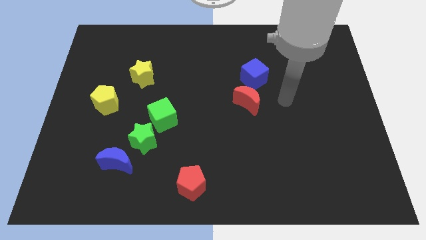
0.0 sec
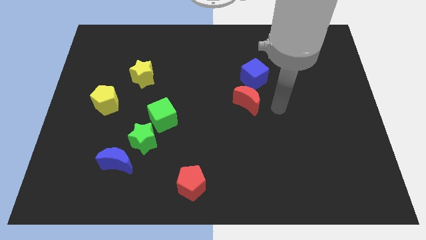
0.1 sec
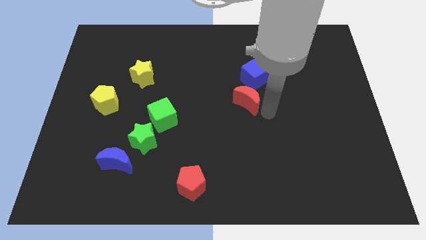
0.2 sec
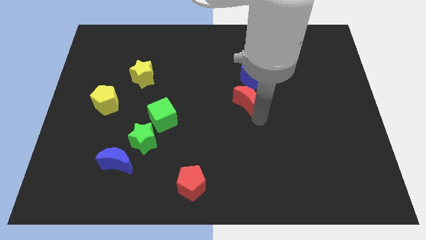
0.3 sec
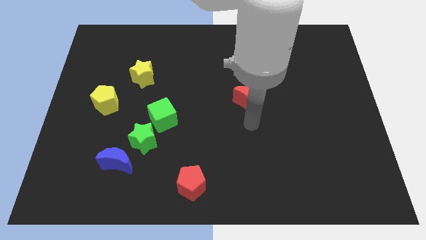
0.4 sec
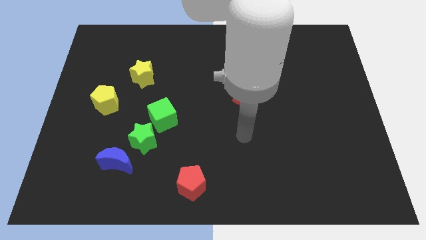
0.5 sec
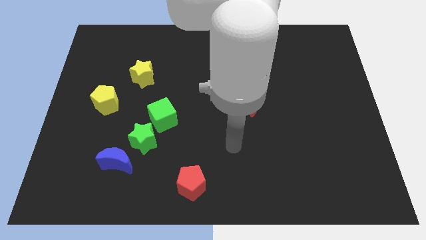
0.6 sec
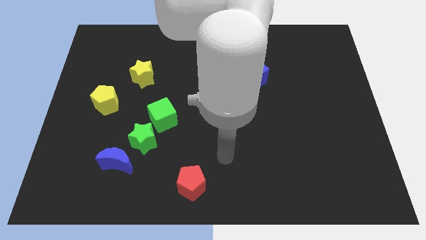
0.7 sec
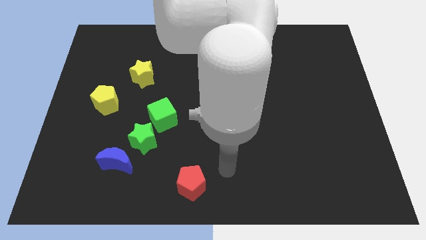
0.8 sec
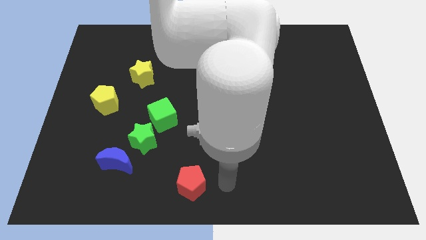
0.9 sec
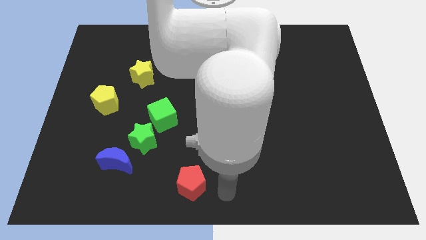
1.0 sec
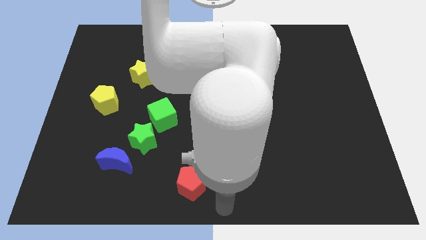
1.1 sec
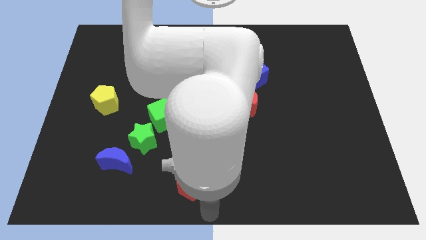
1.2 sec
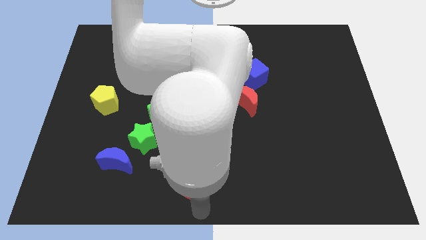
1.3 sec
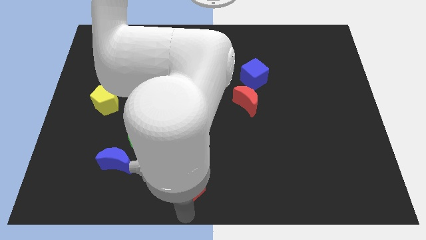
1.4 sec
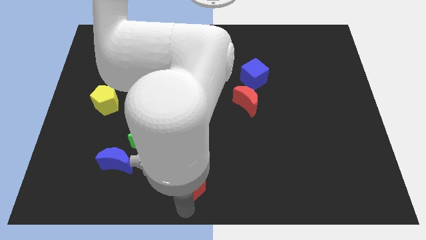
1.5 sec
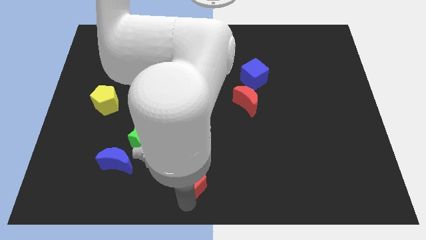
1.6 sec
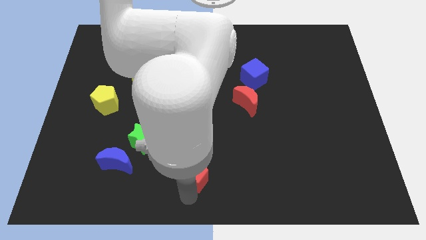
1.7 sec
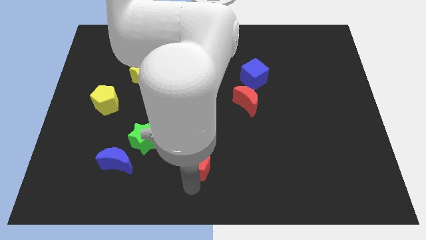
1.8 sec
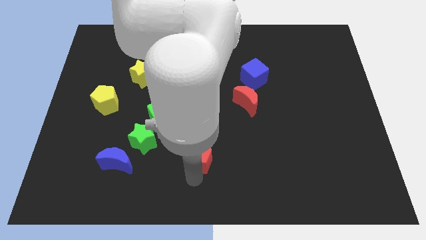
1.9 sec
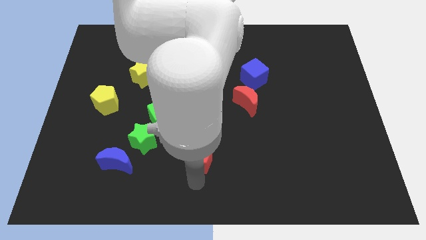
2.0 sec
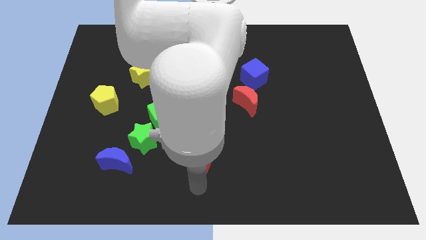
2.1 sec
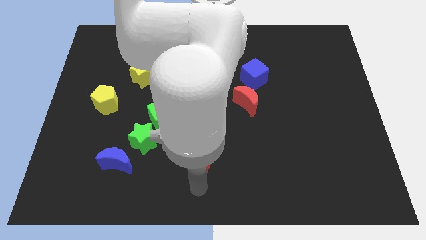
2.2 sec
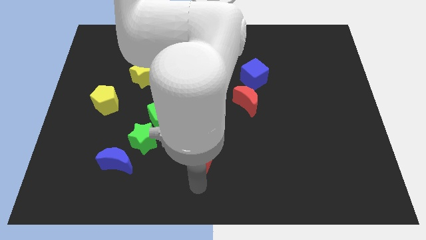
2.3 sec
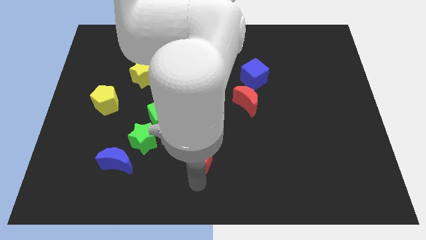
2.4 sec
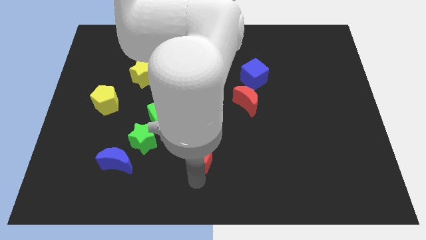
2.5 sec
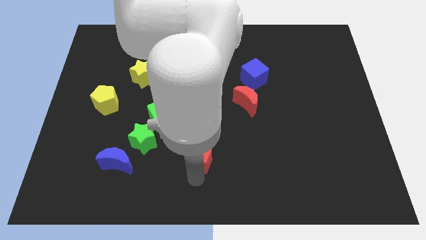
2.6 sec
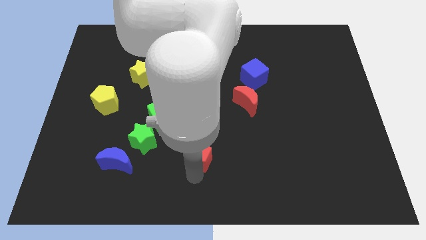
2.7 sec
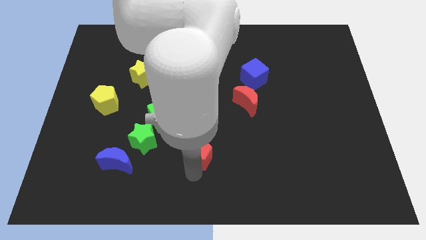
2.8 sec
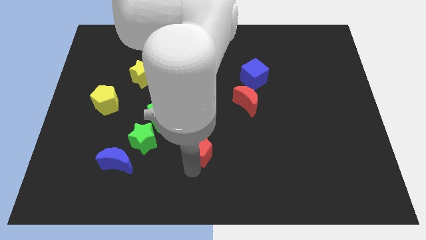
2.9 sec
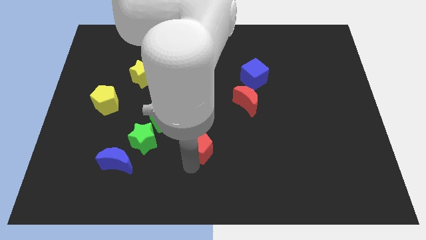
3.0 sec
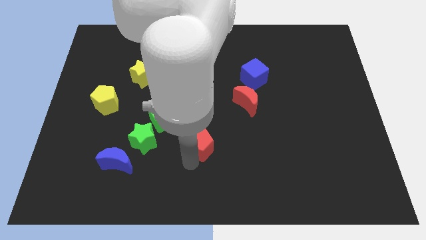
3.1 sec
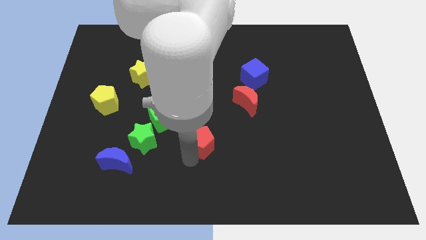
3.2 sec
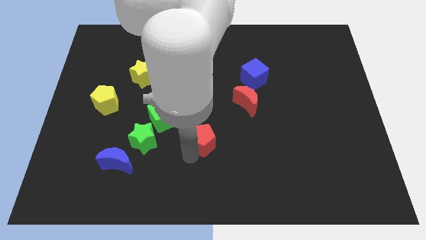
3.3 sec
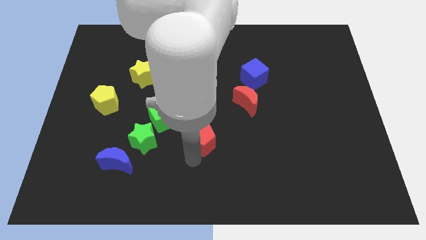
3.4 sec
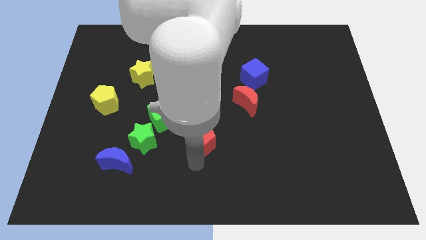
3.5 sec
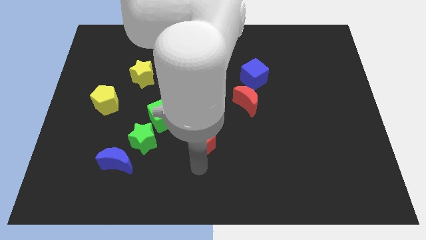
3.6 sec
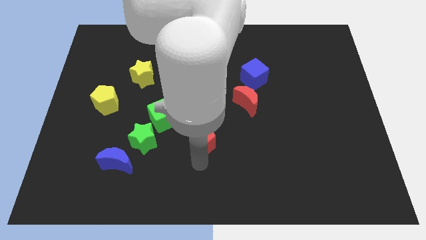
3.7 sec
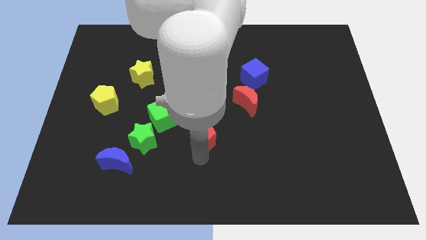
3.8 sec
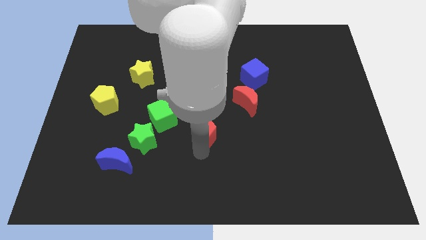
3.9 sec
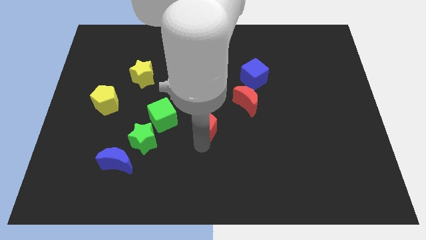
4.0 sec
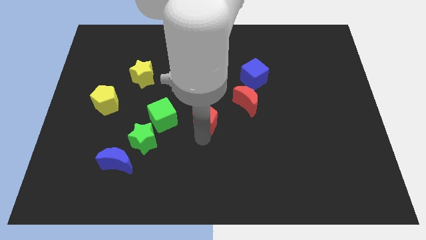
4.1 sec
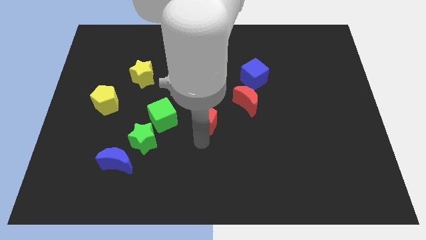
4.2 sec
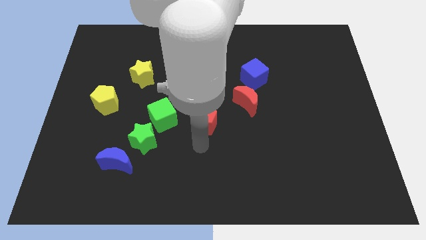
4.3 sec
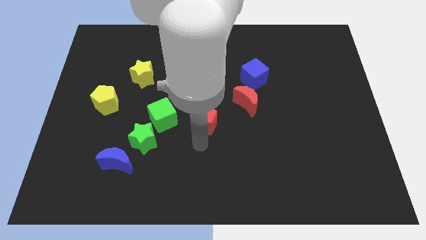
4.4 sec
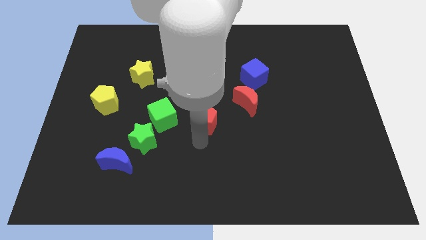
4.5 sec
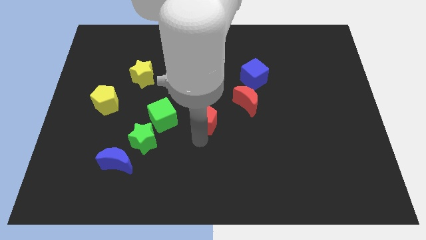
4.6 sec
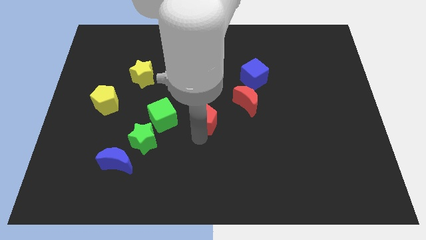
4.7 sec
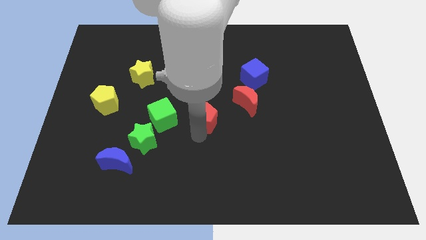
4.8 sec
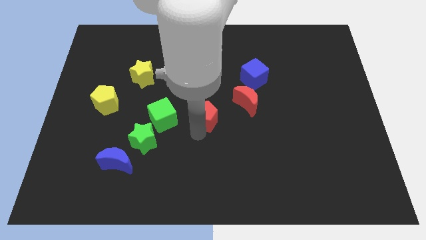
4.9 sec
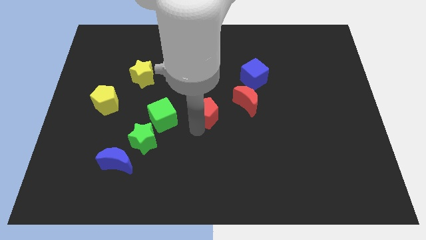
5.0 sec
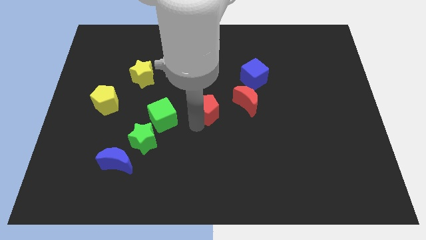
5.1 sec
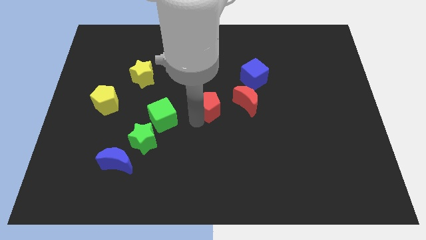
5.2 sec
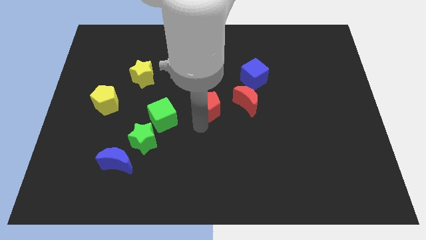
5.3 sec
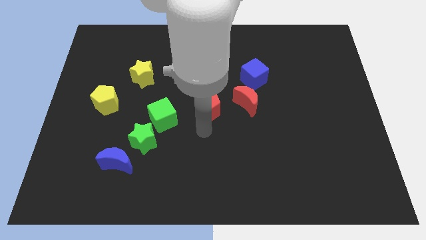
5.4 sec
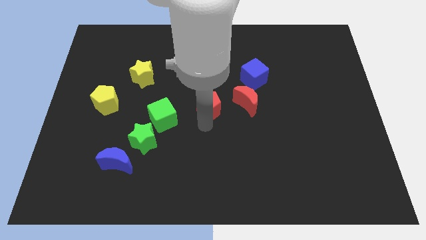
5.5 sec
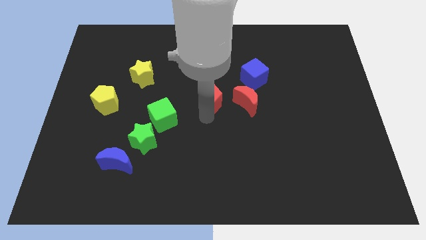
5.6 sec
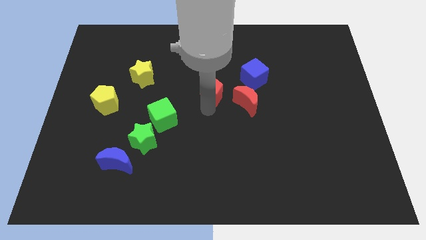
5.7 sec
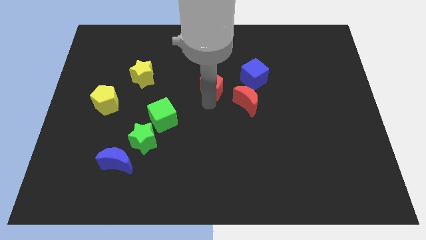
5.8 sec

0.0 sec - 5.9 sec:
move the red pentagon to the left side of the blue cube

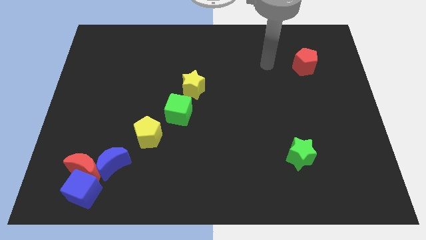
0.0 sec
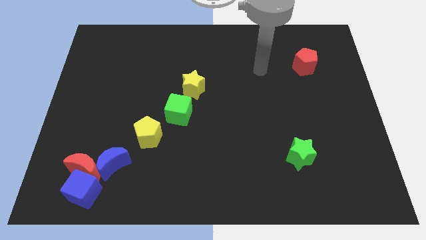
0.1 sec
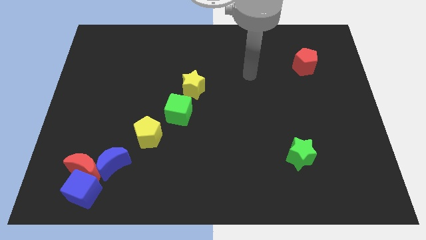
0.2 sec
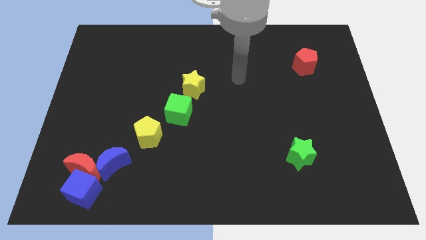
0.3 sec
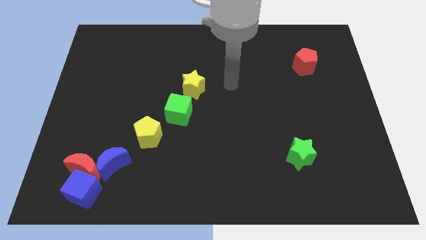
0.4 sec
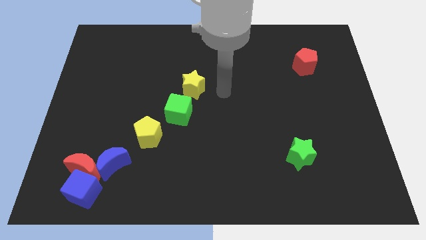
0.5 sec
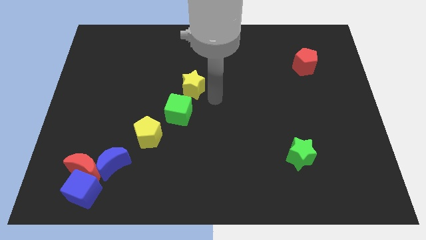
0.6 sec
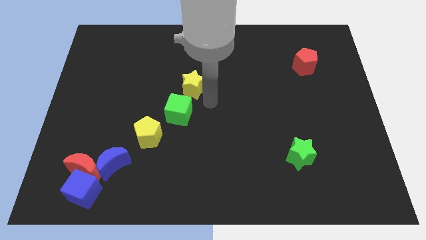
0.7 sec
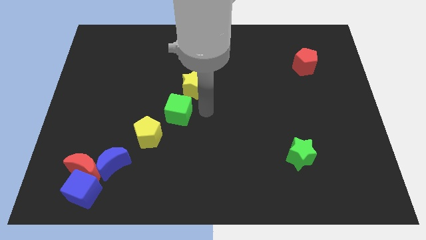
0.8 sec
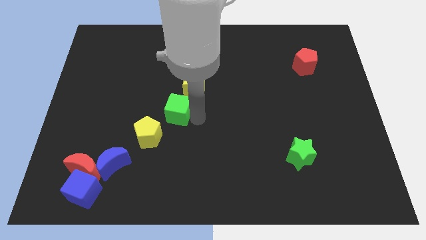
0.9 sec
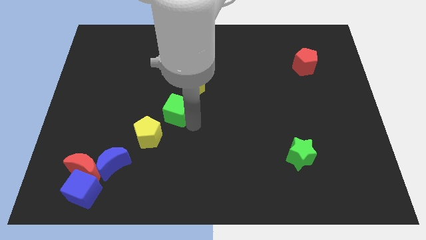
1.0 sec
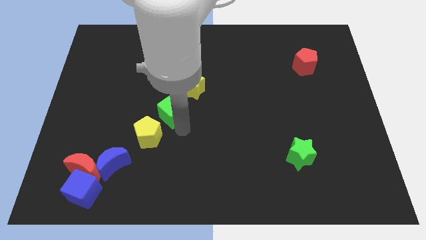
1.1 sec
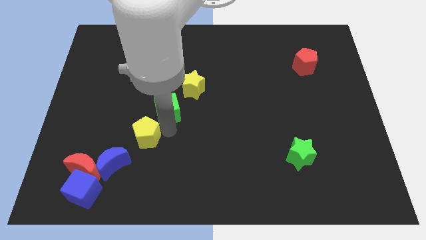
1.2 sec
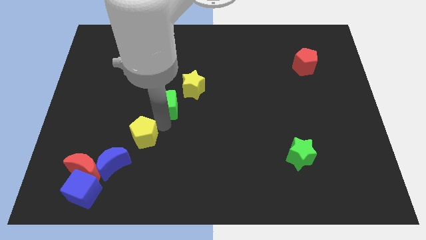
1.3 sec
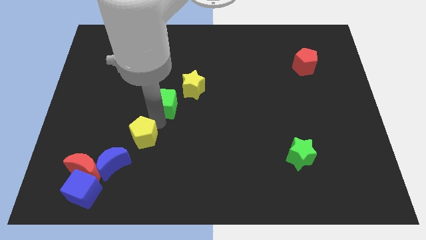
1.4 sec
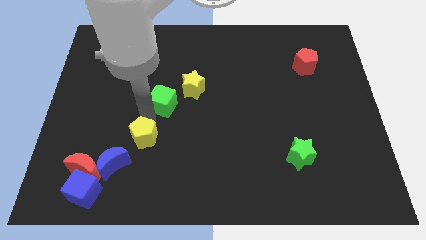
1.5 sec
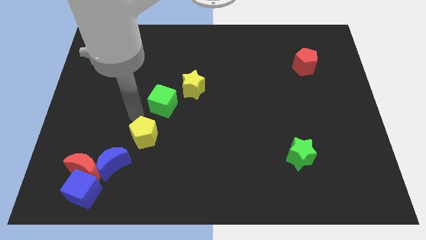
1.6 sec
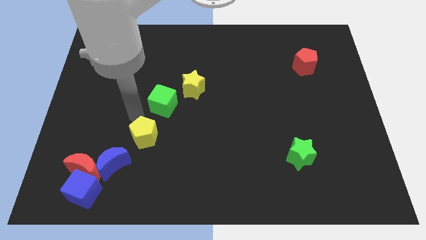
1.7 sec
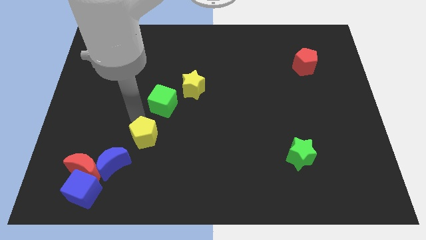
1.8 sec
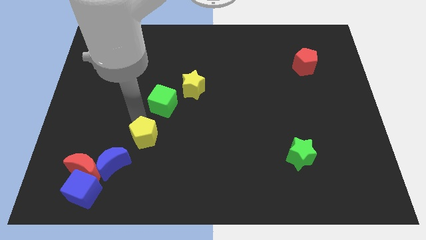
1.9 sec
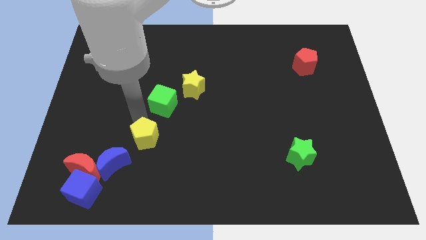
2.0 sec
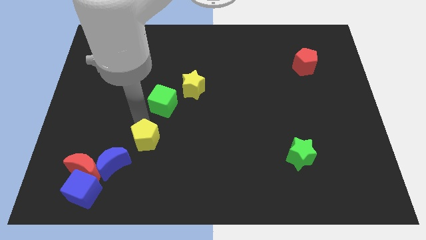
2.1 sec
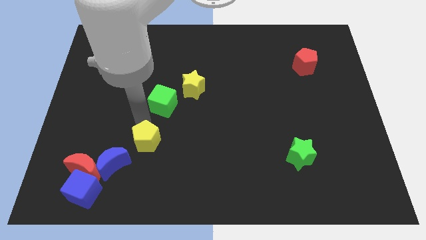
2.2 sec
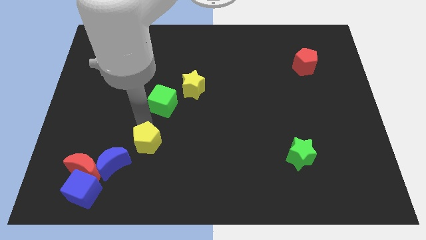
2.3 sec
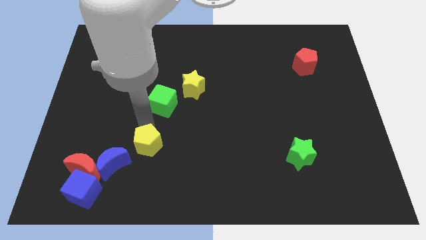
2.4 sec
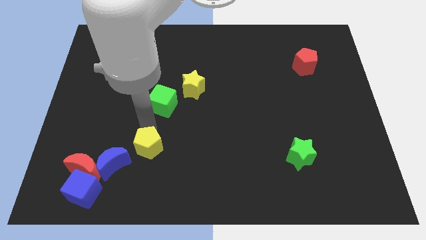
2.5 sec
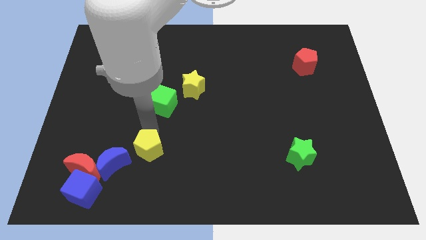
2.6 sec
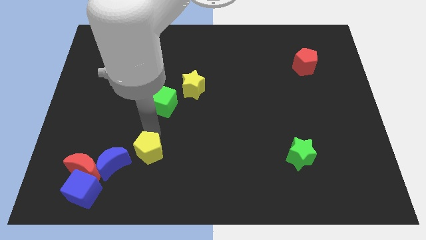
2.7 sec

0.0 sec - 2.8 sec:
move the yellow pentagon right of the red moon
